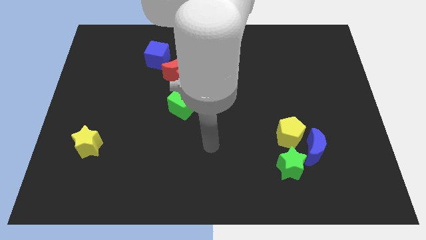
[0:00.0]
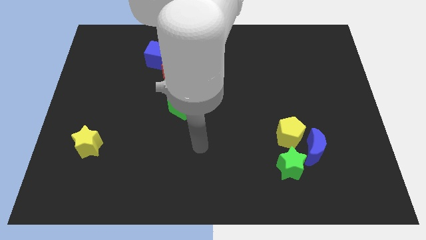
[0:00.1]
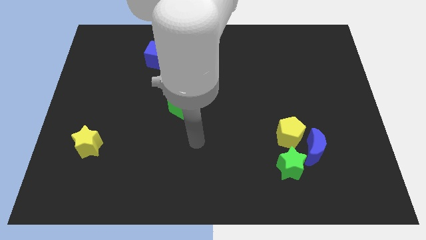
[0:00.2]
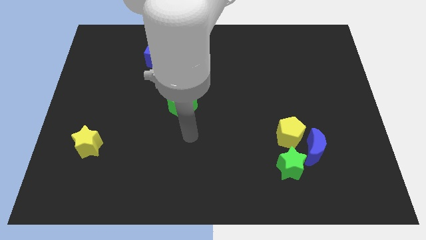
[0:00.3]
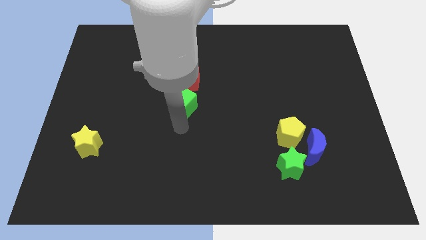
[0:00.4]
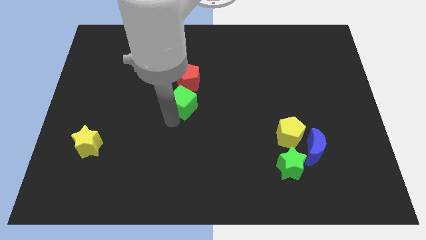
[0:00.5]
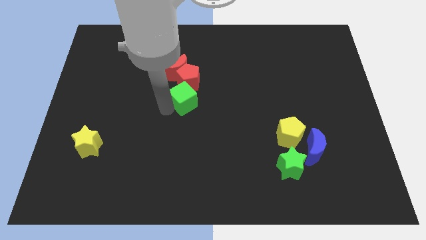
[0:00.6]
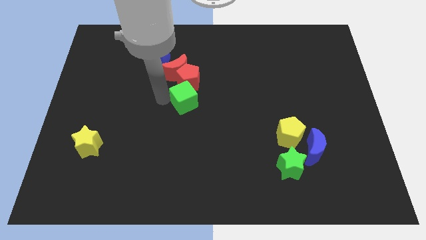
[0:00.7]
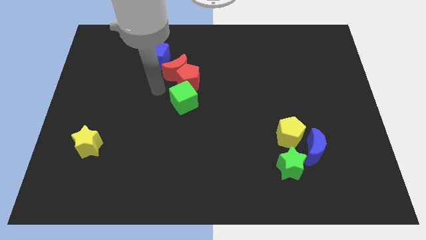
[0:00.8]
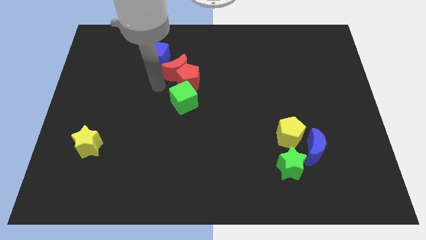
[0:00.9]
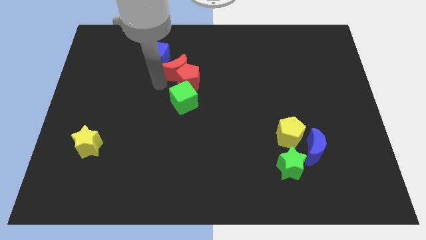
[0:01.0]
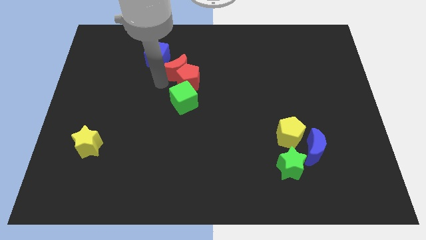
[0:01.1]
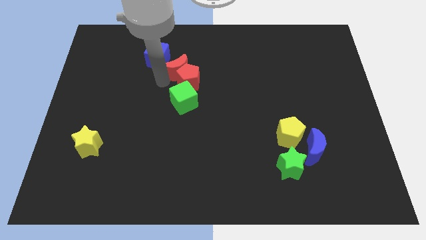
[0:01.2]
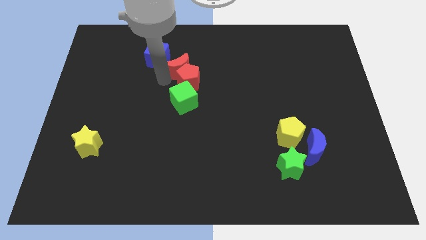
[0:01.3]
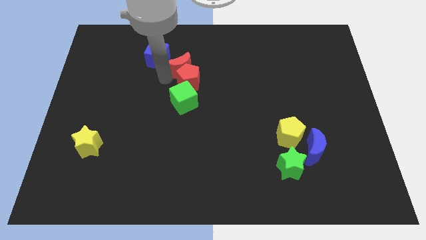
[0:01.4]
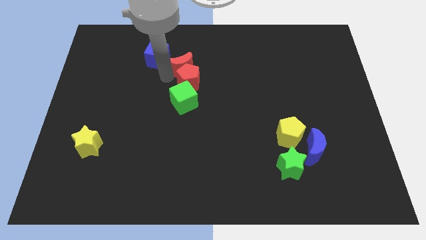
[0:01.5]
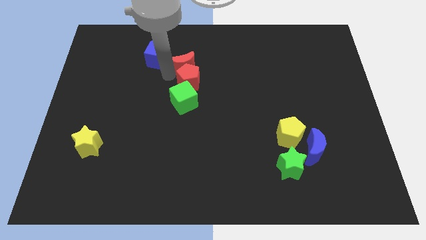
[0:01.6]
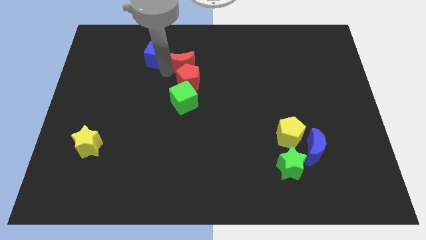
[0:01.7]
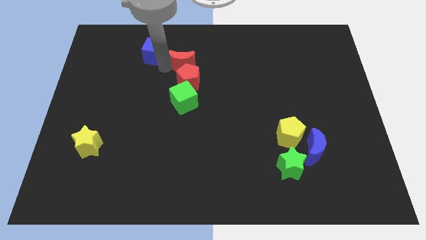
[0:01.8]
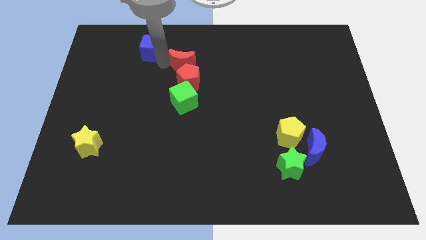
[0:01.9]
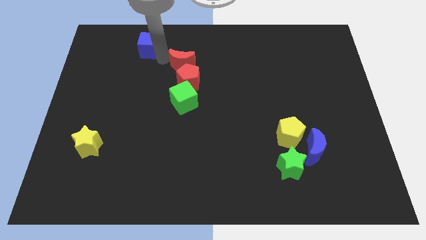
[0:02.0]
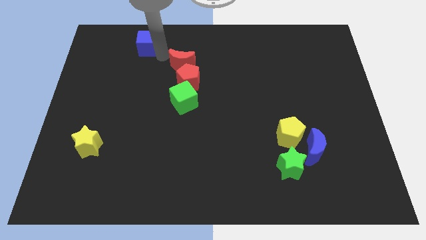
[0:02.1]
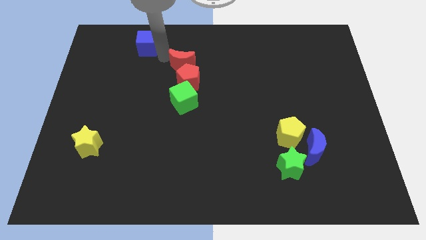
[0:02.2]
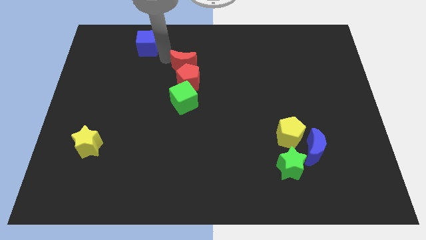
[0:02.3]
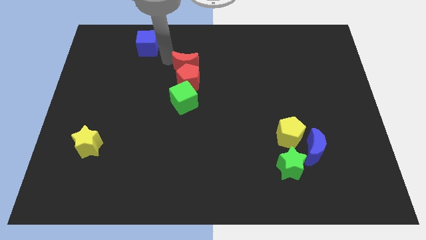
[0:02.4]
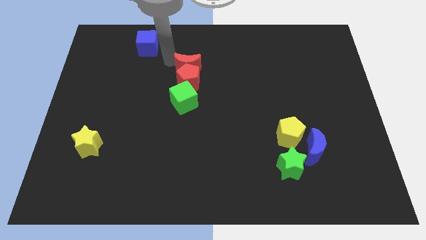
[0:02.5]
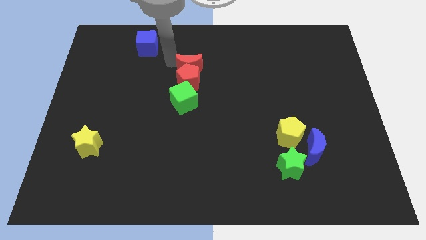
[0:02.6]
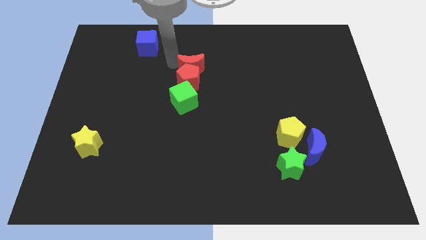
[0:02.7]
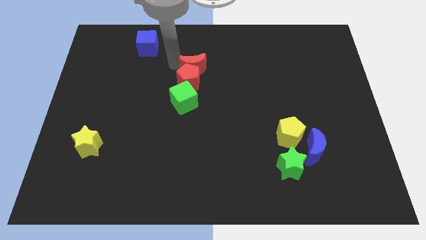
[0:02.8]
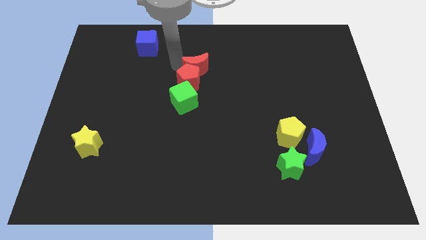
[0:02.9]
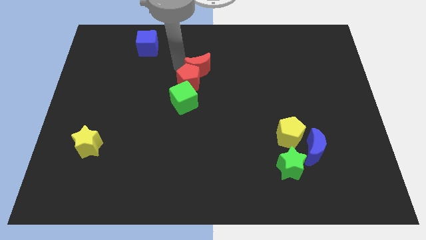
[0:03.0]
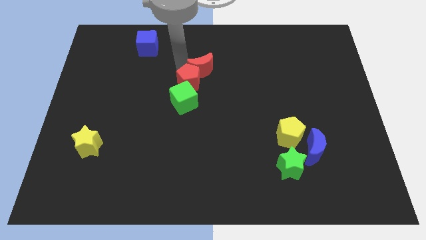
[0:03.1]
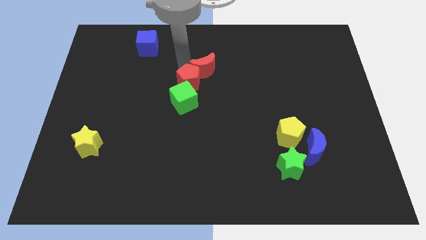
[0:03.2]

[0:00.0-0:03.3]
move the red moon away from the red pentagon and blue cube

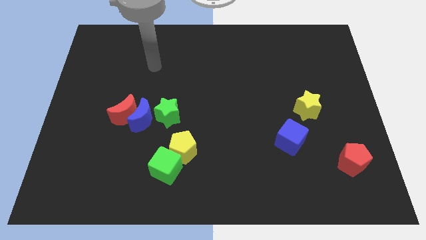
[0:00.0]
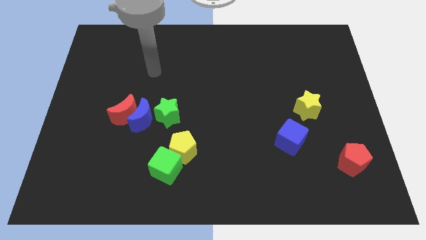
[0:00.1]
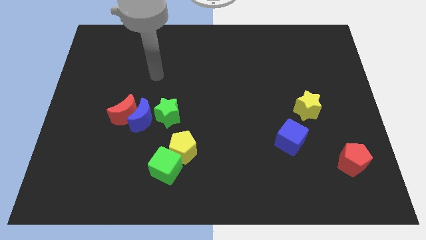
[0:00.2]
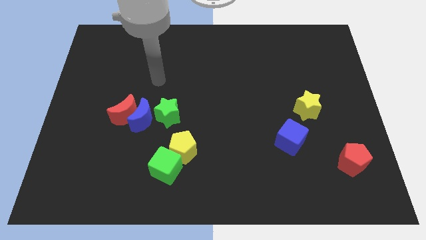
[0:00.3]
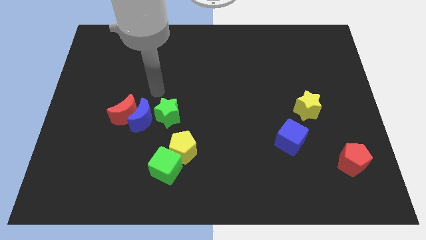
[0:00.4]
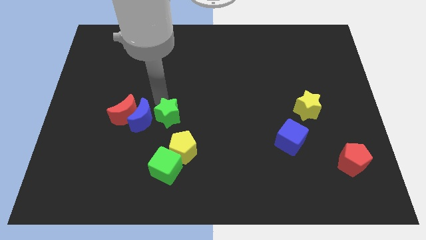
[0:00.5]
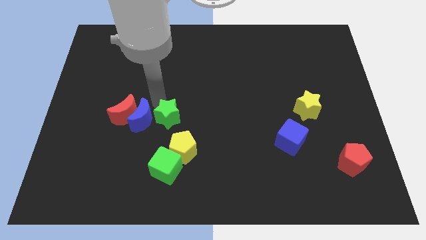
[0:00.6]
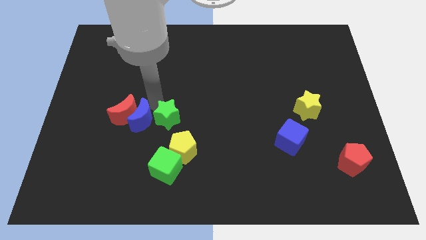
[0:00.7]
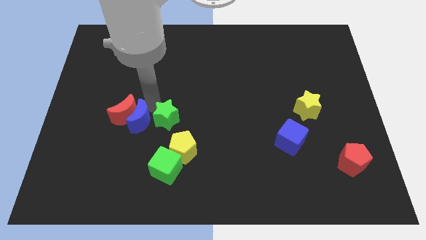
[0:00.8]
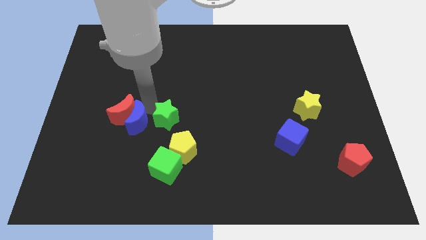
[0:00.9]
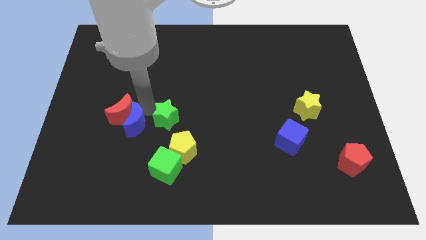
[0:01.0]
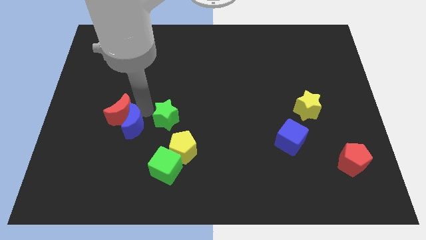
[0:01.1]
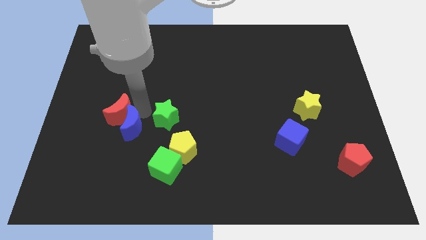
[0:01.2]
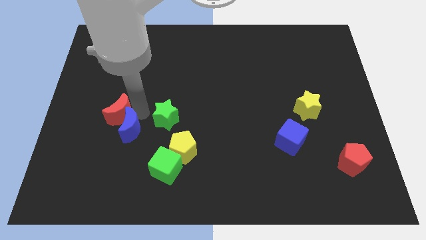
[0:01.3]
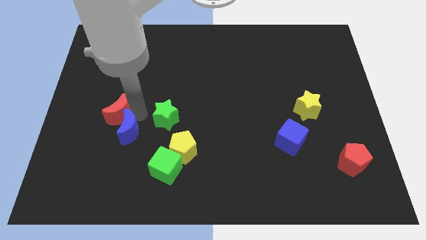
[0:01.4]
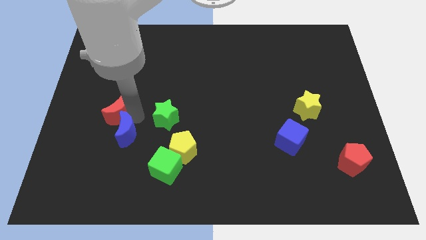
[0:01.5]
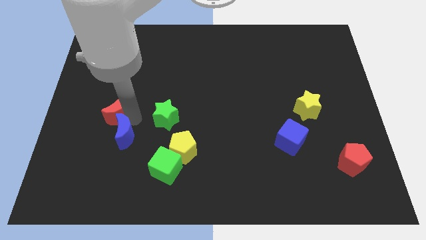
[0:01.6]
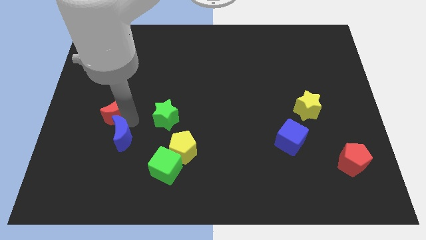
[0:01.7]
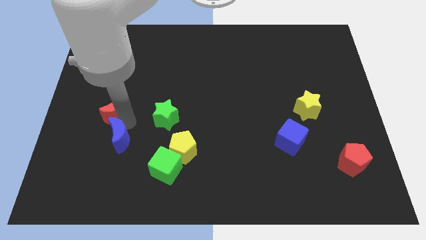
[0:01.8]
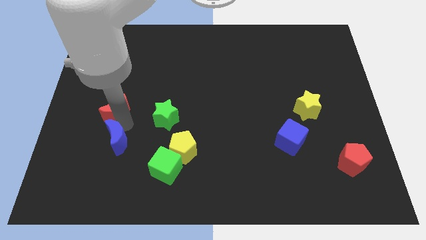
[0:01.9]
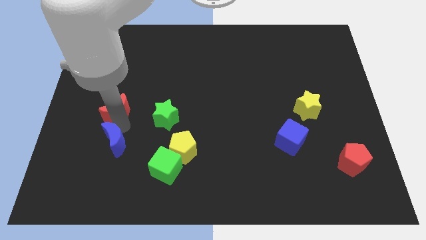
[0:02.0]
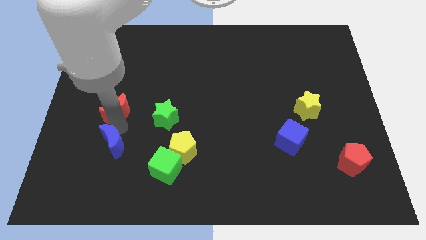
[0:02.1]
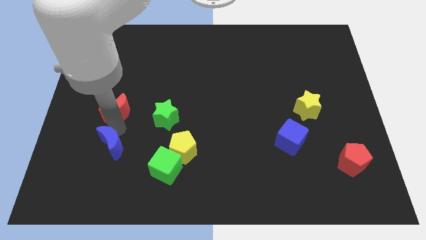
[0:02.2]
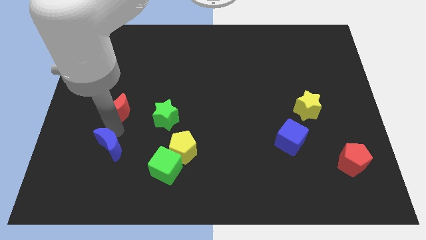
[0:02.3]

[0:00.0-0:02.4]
move the blue moon away from the red moon and green star

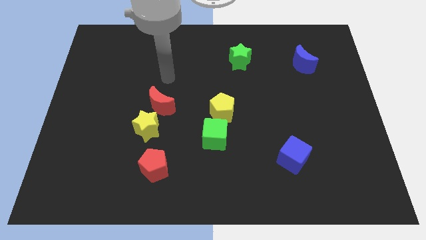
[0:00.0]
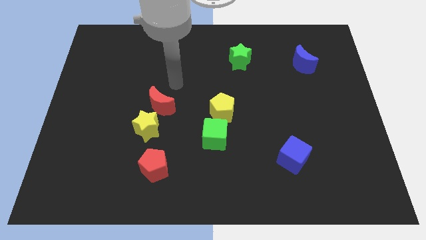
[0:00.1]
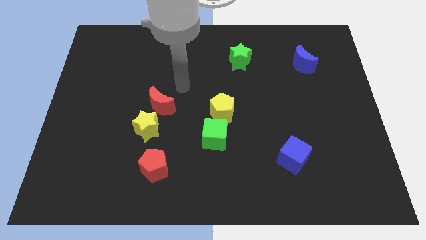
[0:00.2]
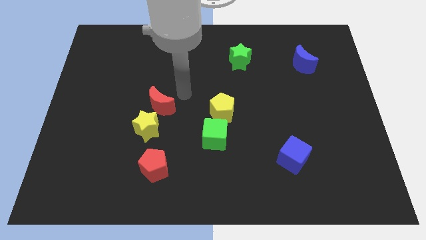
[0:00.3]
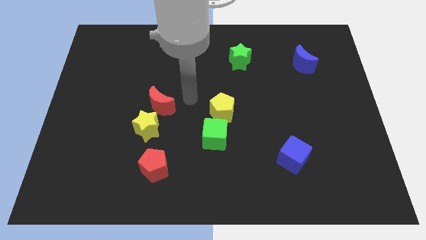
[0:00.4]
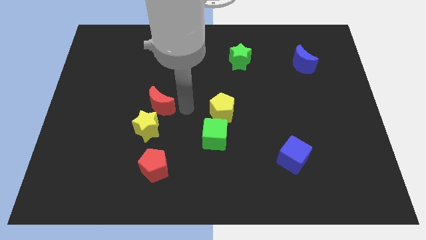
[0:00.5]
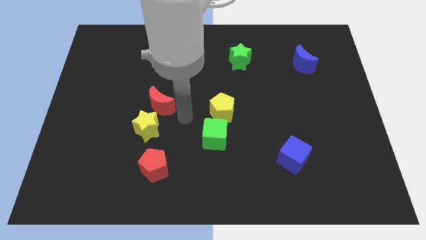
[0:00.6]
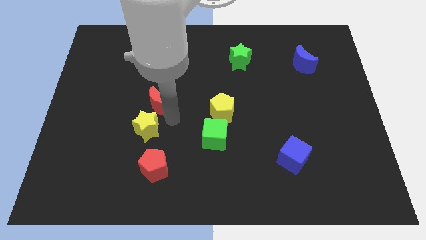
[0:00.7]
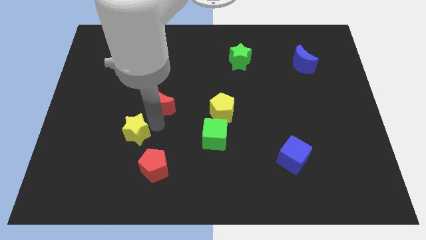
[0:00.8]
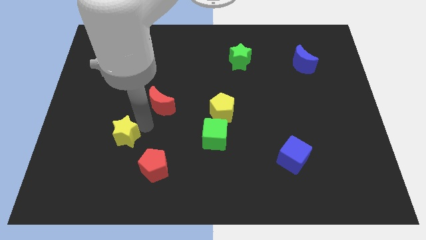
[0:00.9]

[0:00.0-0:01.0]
separate the red moon from the yellow star

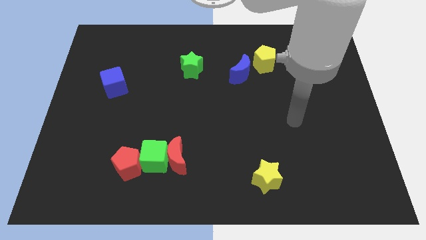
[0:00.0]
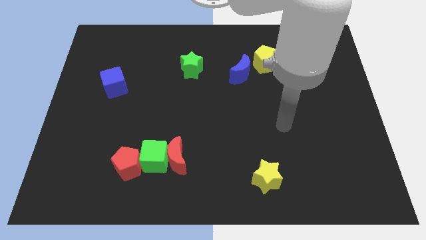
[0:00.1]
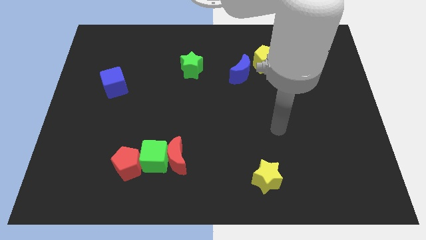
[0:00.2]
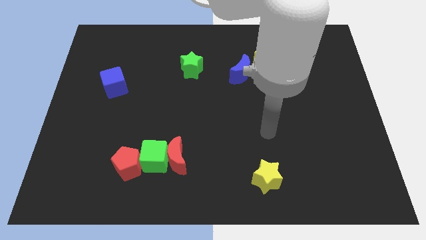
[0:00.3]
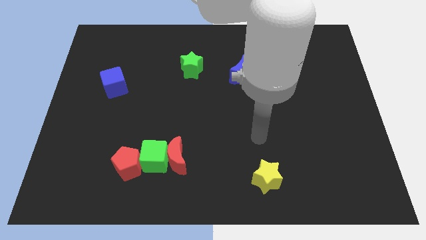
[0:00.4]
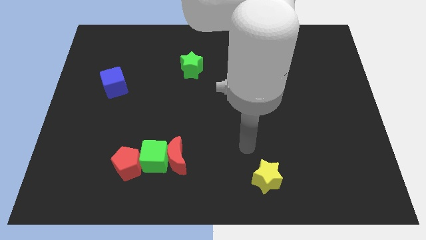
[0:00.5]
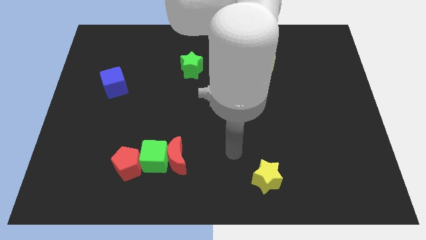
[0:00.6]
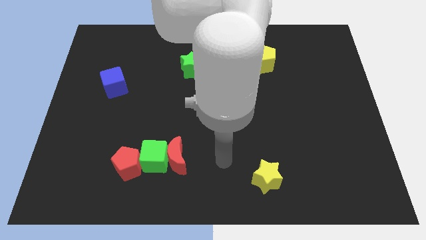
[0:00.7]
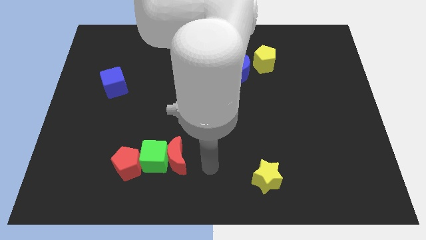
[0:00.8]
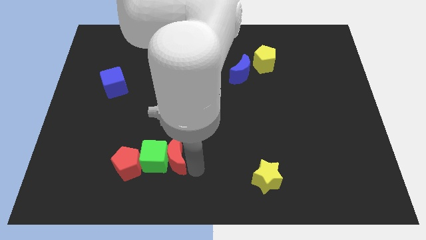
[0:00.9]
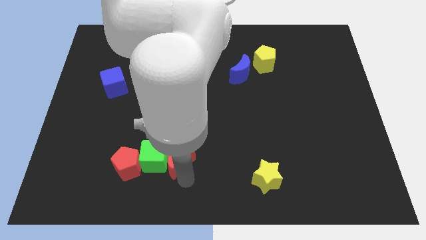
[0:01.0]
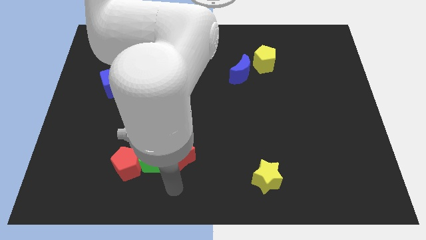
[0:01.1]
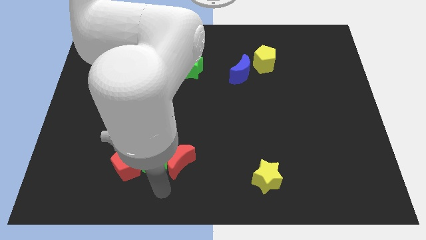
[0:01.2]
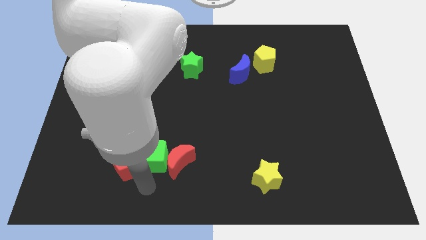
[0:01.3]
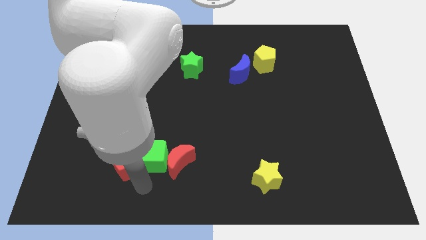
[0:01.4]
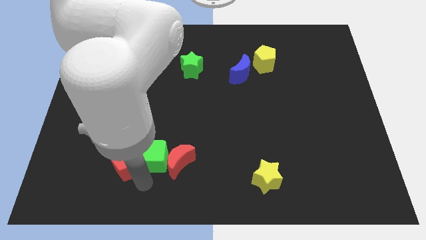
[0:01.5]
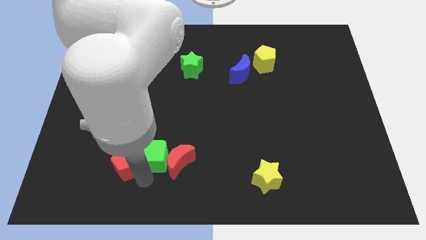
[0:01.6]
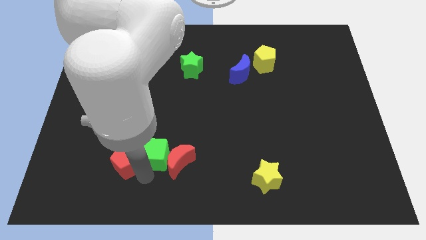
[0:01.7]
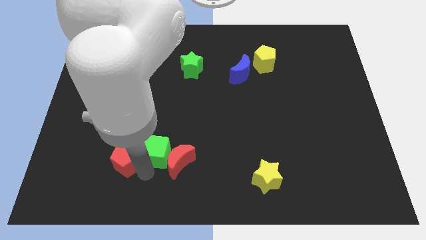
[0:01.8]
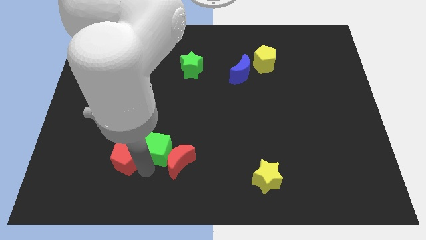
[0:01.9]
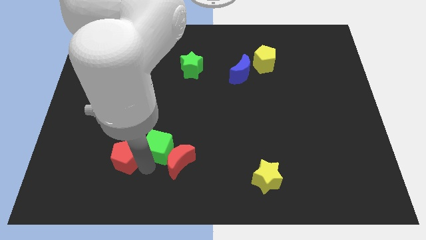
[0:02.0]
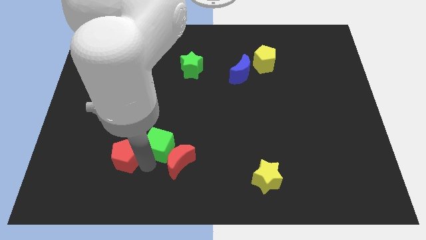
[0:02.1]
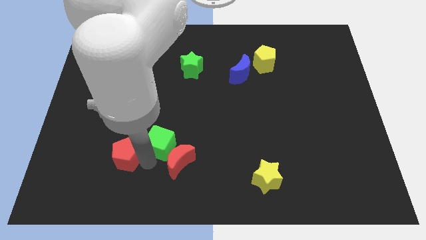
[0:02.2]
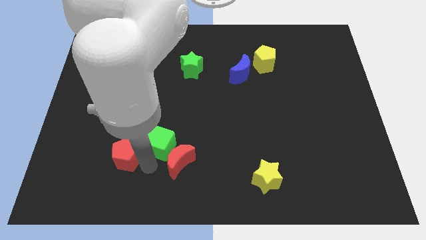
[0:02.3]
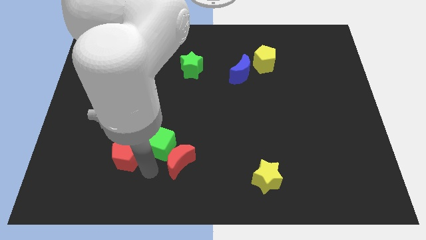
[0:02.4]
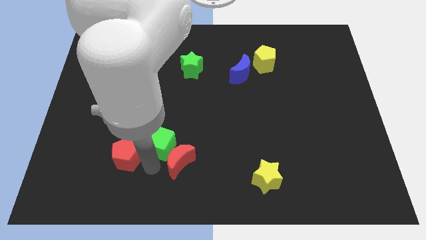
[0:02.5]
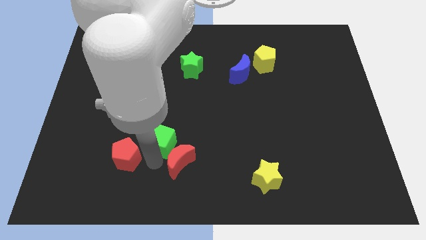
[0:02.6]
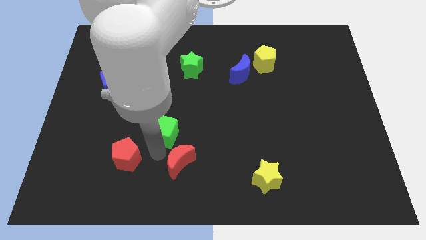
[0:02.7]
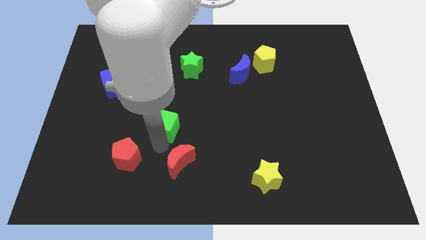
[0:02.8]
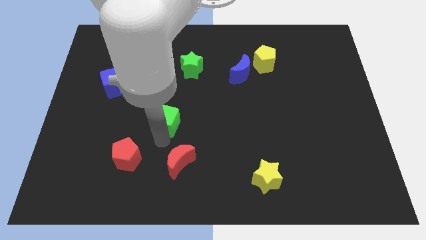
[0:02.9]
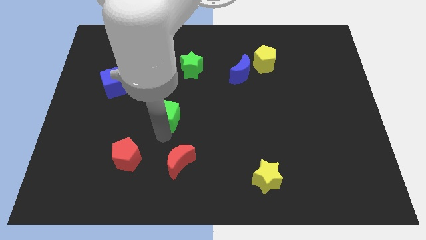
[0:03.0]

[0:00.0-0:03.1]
move the green cube away from the red moon and red pentagon
